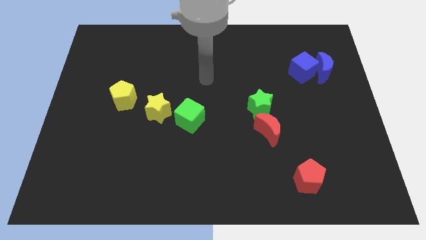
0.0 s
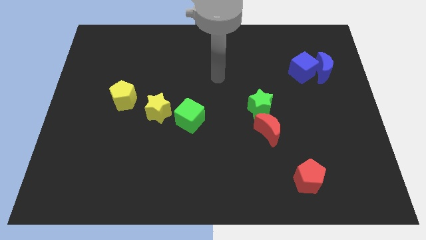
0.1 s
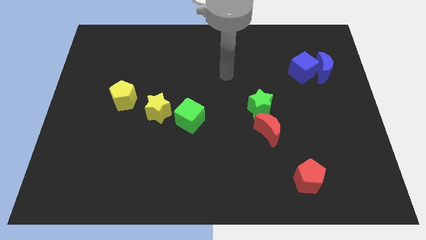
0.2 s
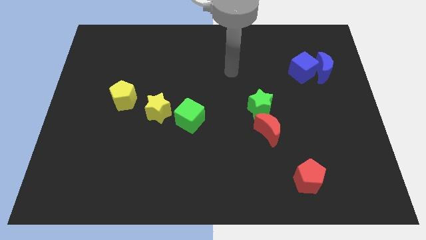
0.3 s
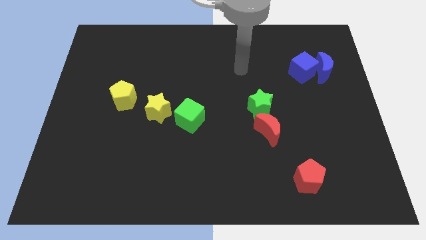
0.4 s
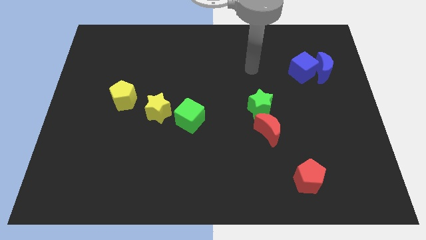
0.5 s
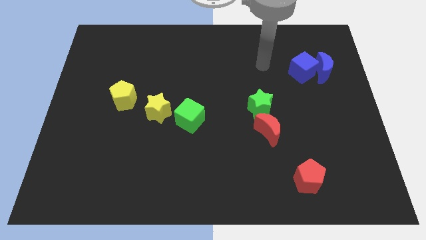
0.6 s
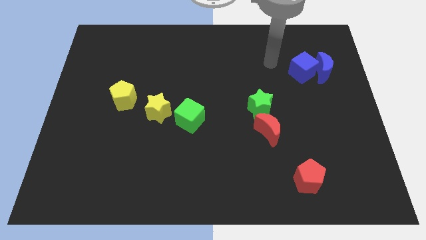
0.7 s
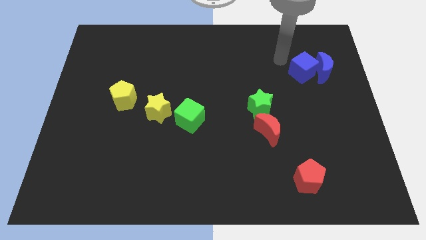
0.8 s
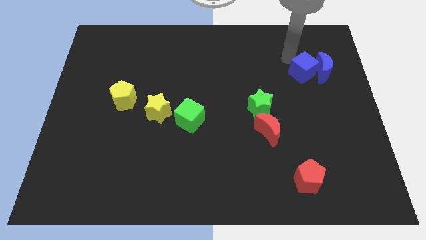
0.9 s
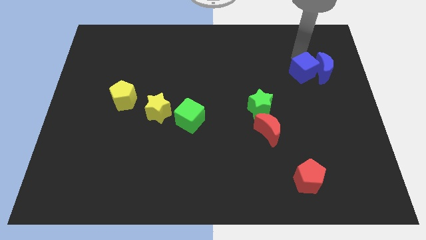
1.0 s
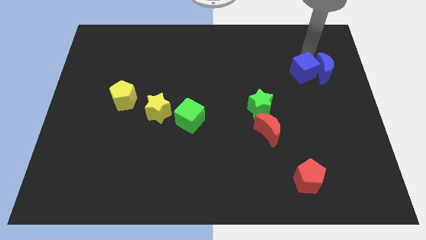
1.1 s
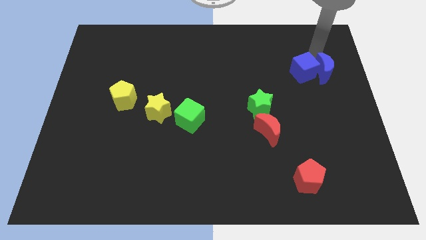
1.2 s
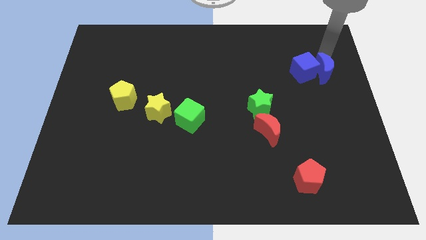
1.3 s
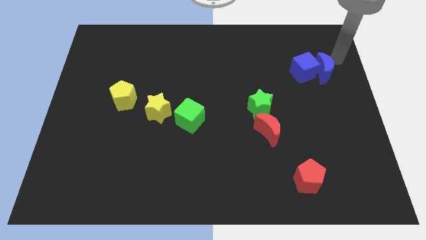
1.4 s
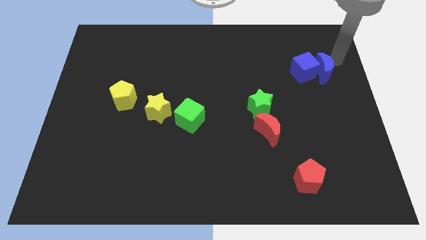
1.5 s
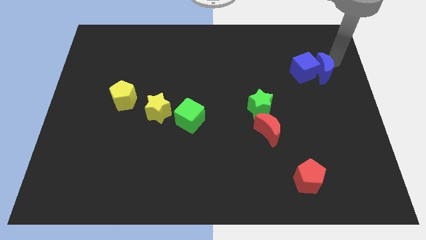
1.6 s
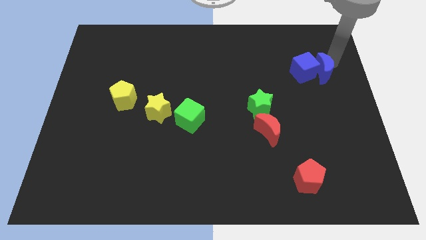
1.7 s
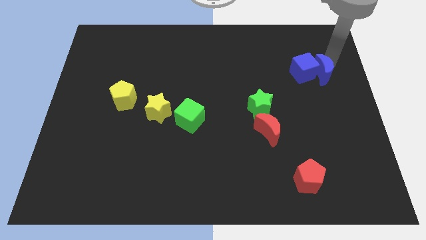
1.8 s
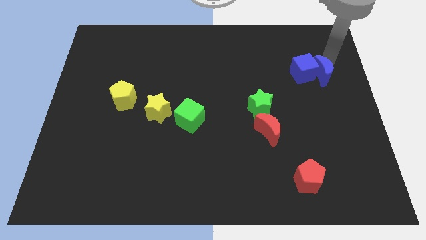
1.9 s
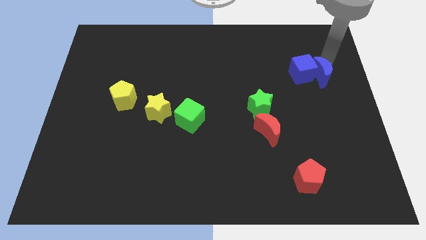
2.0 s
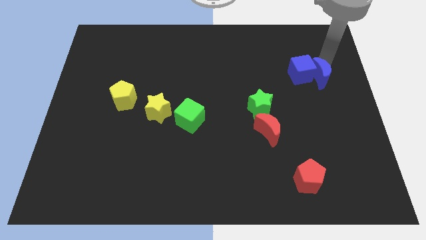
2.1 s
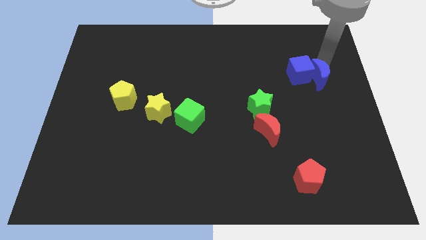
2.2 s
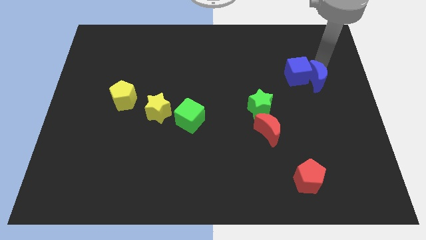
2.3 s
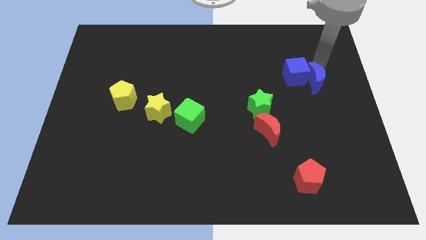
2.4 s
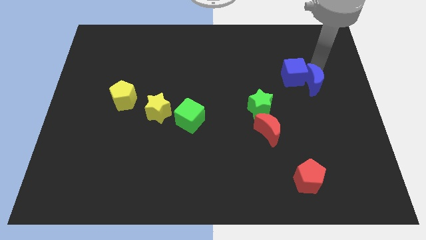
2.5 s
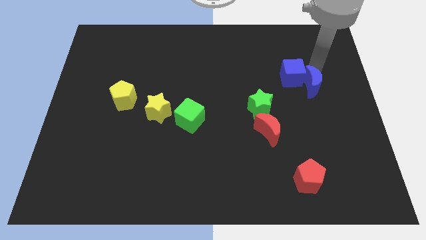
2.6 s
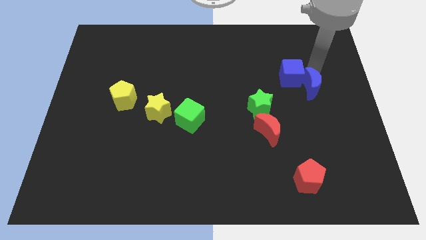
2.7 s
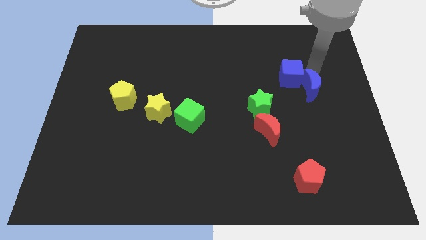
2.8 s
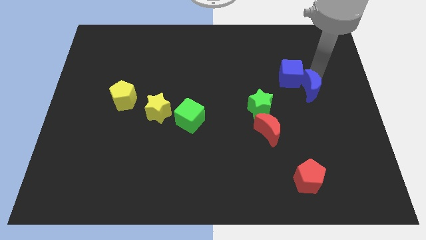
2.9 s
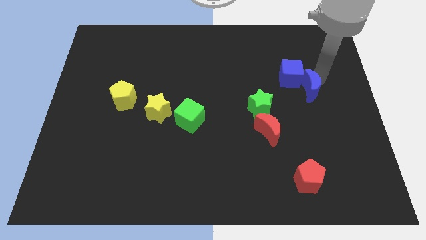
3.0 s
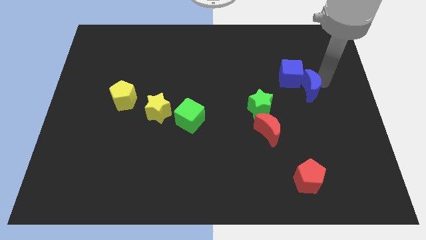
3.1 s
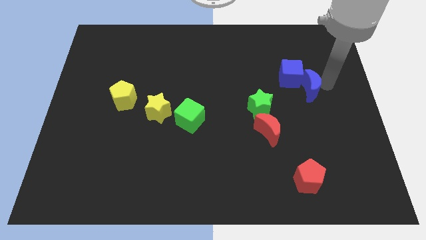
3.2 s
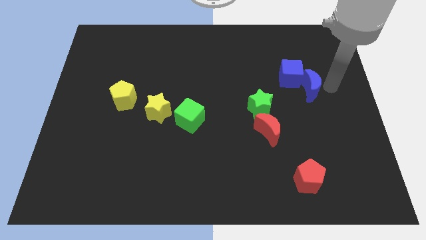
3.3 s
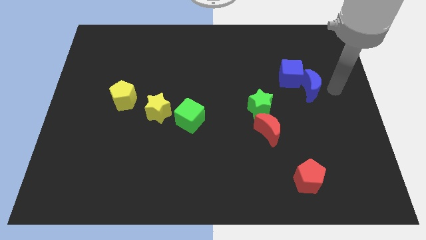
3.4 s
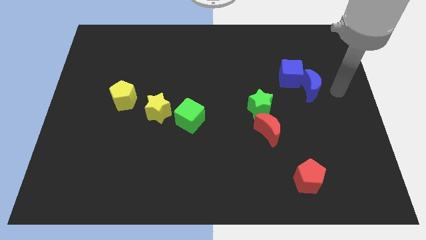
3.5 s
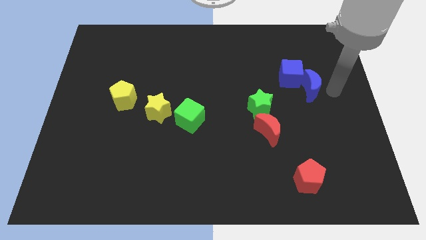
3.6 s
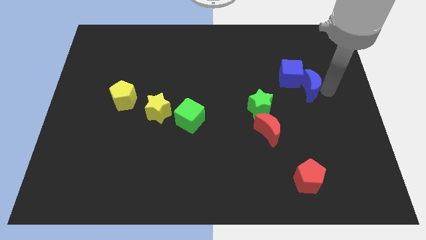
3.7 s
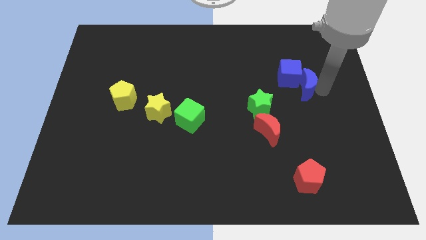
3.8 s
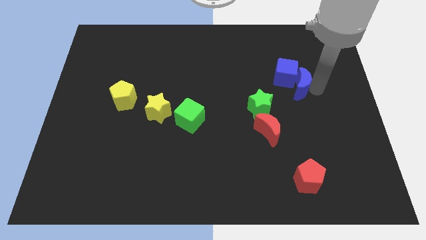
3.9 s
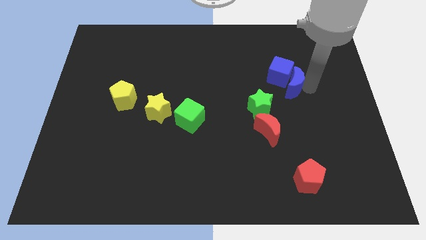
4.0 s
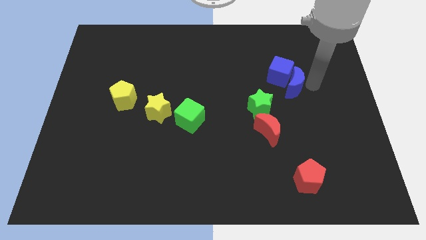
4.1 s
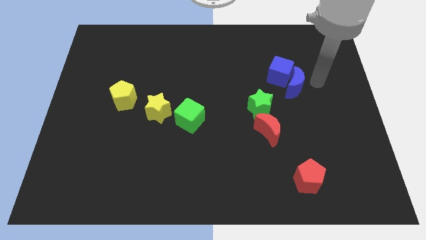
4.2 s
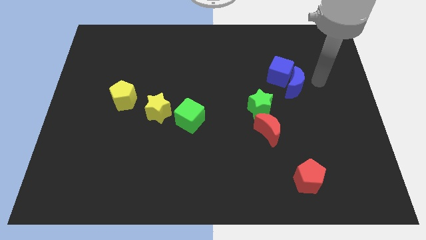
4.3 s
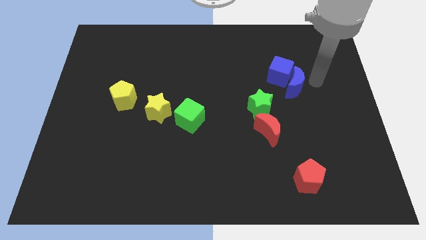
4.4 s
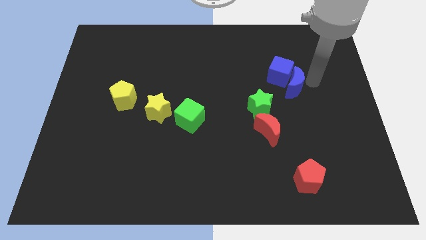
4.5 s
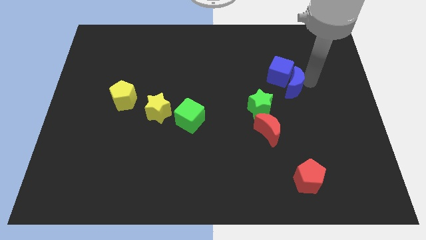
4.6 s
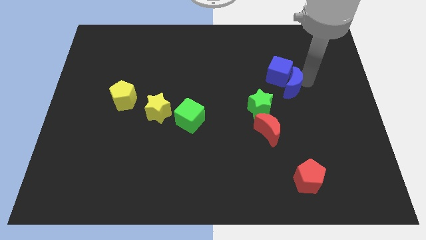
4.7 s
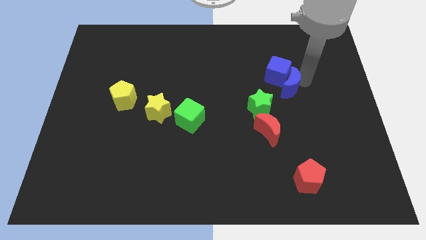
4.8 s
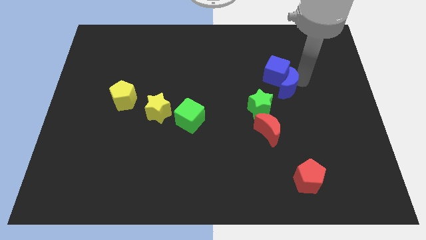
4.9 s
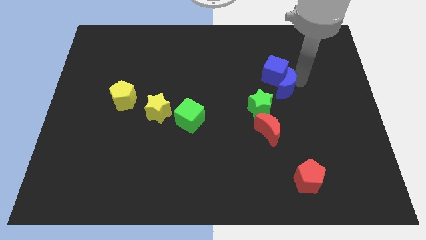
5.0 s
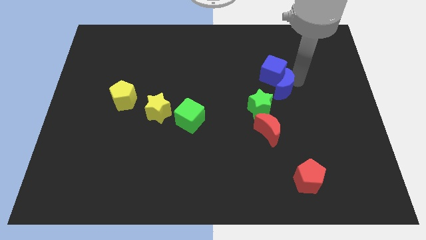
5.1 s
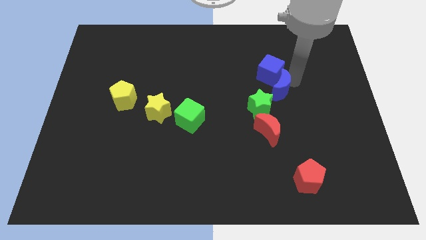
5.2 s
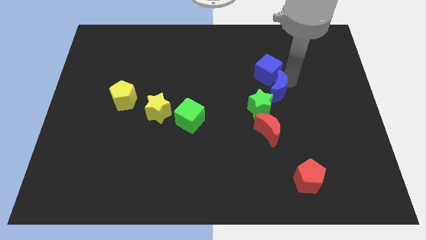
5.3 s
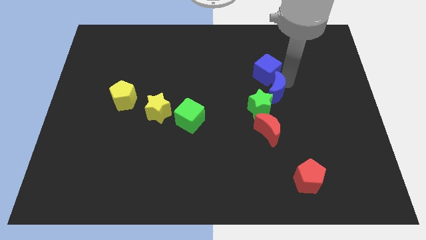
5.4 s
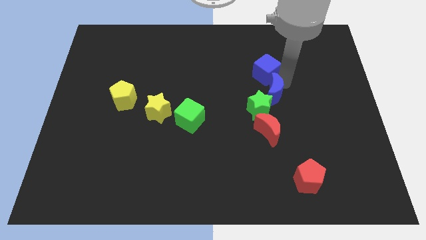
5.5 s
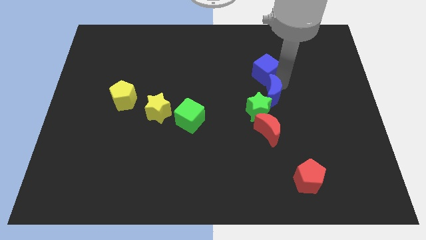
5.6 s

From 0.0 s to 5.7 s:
put the blue moon to the green star

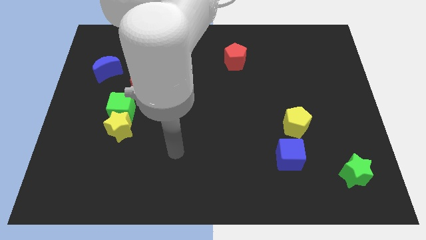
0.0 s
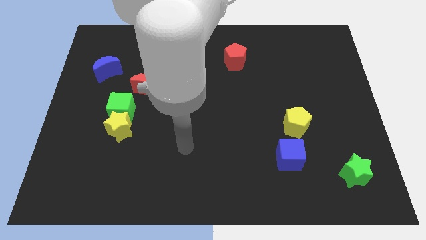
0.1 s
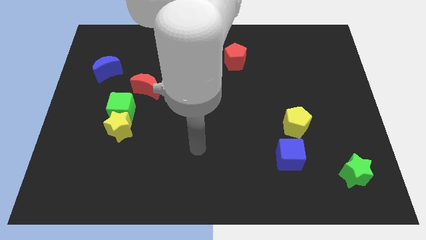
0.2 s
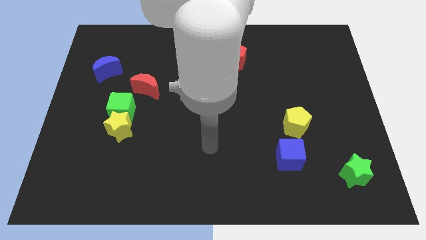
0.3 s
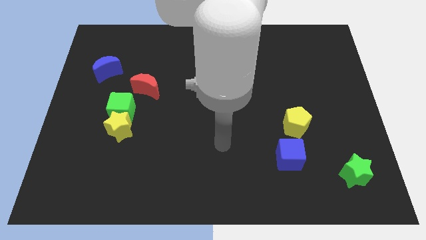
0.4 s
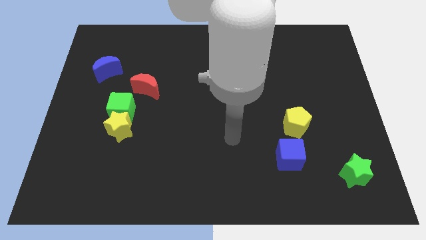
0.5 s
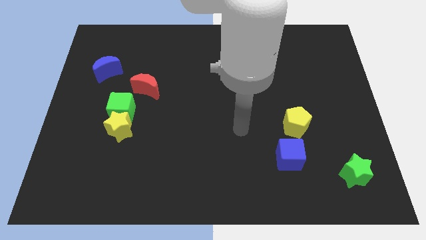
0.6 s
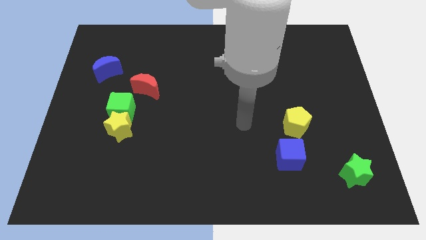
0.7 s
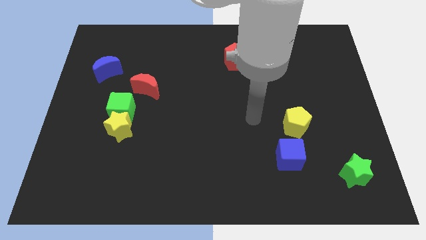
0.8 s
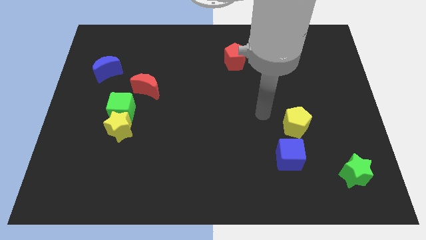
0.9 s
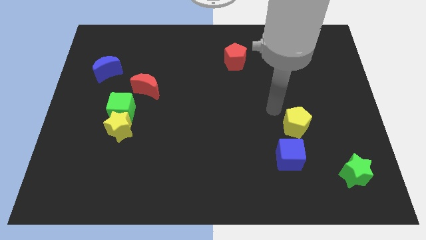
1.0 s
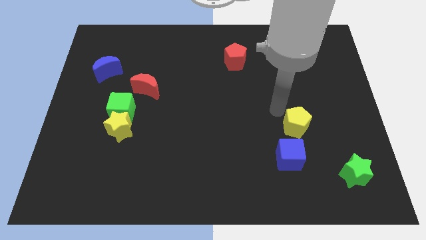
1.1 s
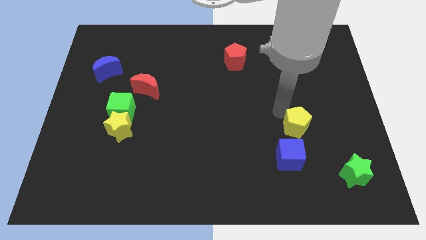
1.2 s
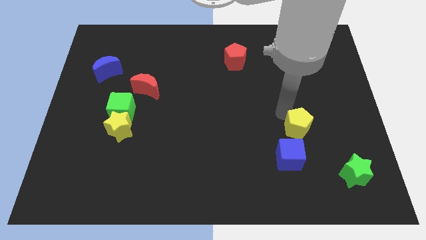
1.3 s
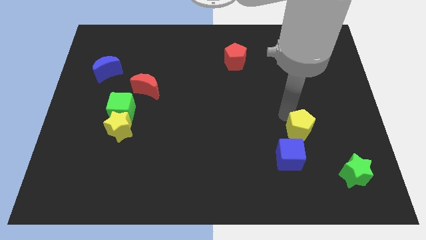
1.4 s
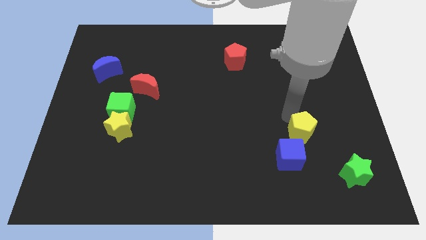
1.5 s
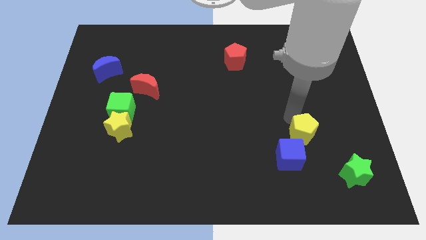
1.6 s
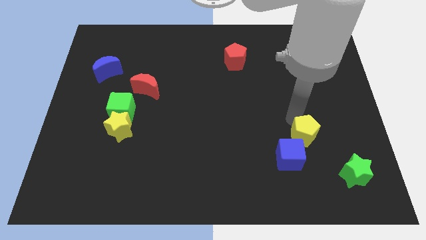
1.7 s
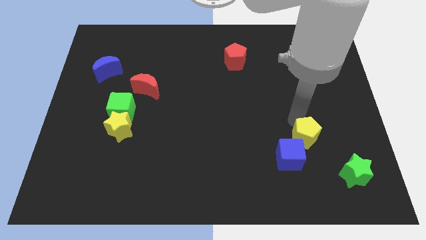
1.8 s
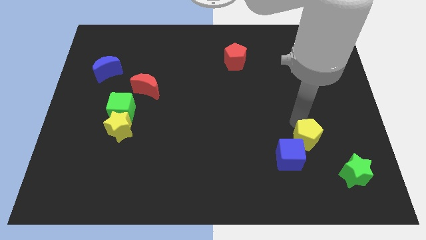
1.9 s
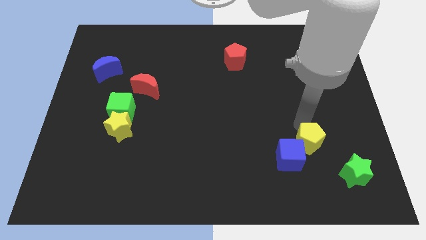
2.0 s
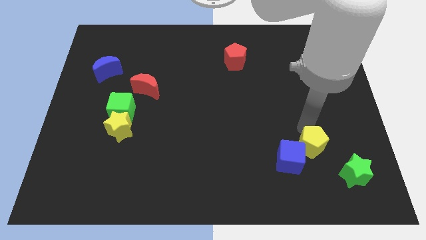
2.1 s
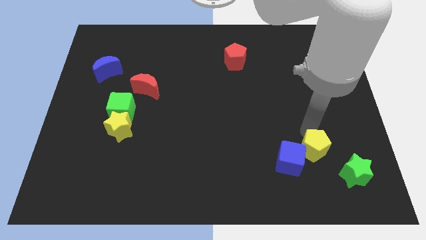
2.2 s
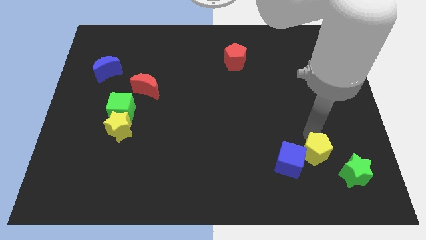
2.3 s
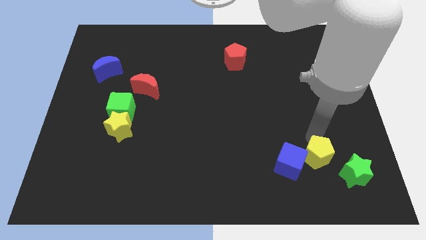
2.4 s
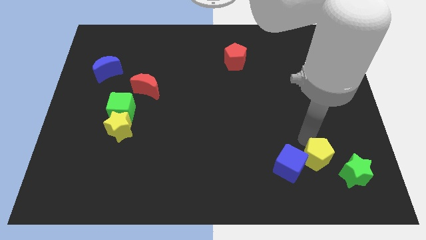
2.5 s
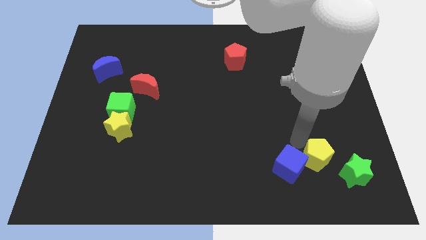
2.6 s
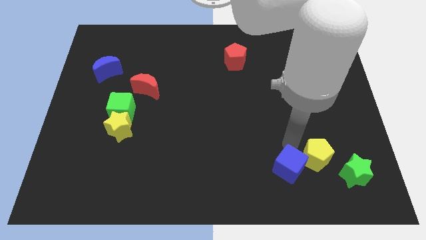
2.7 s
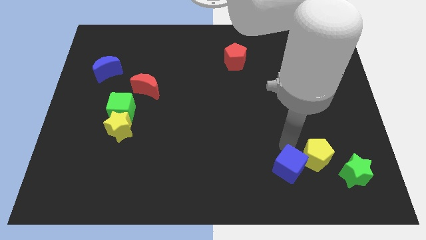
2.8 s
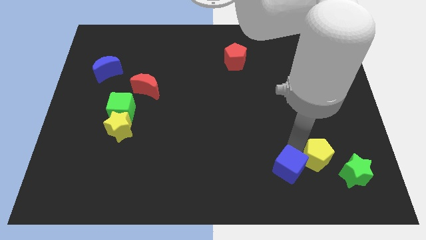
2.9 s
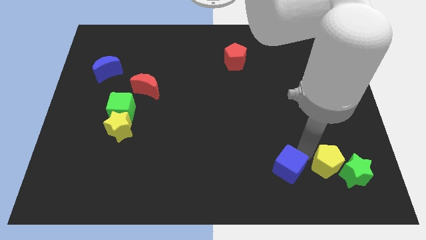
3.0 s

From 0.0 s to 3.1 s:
put the yellow pentagon to the green star
